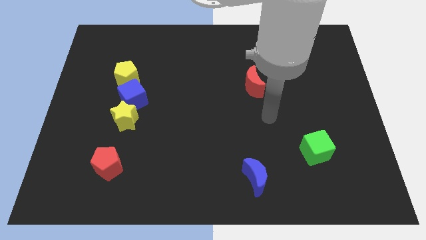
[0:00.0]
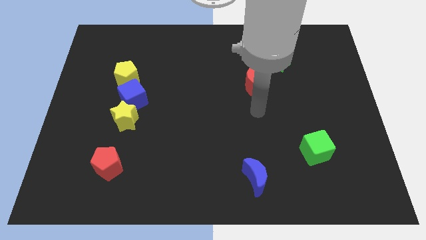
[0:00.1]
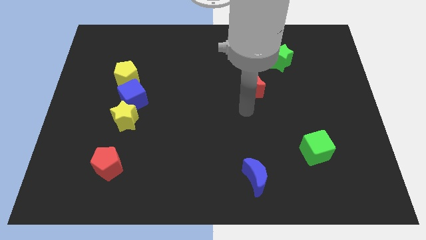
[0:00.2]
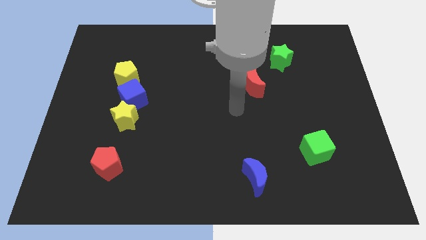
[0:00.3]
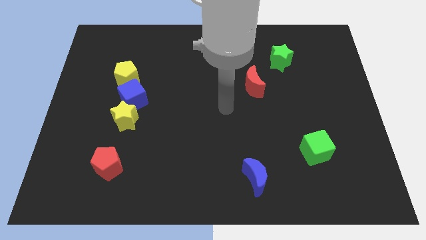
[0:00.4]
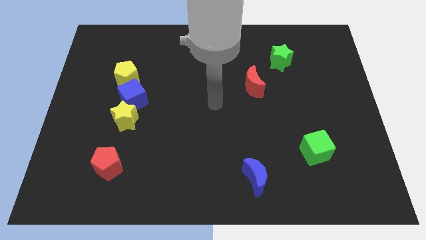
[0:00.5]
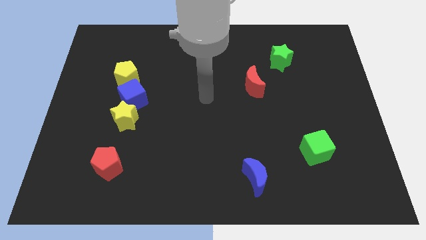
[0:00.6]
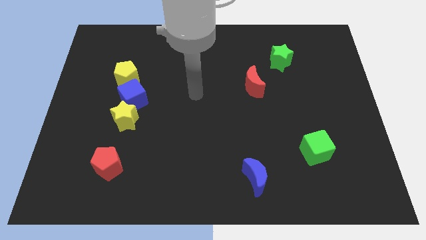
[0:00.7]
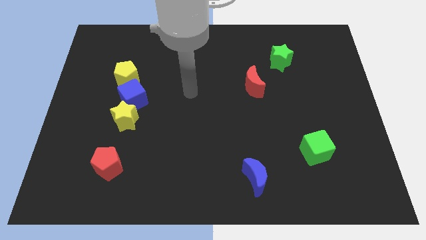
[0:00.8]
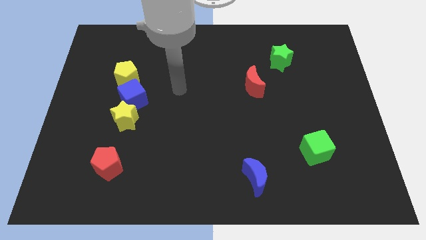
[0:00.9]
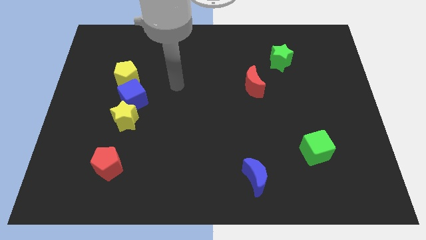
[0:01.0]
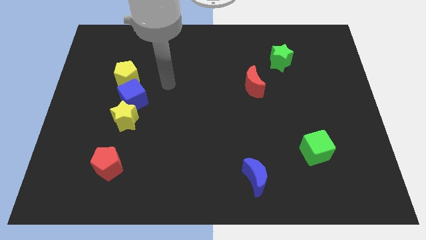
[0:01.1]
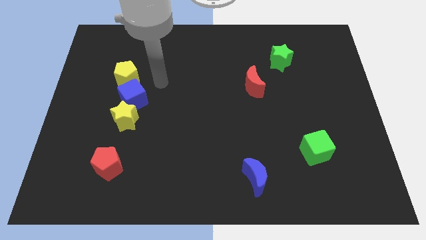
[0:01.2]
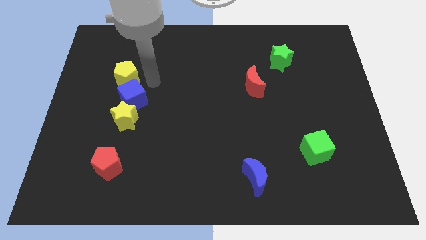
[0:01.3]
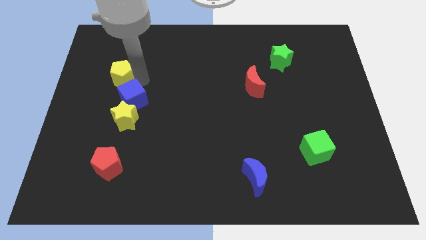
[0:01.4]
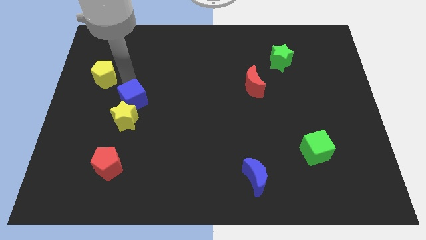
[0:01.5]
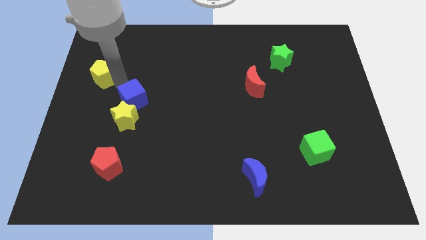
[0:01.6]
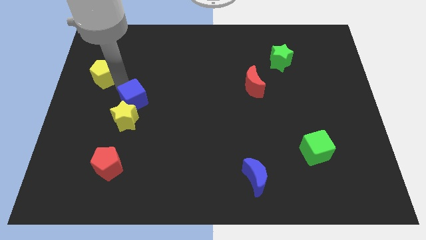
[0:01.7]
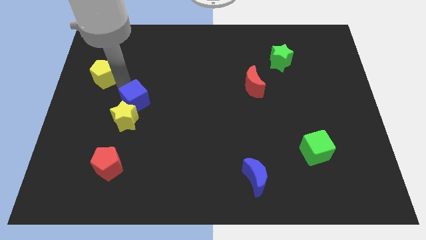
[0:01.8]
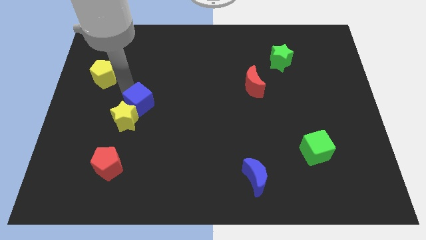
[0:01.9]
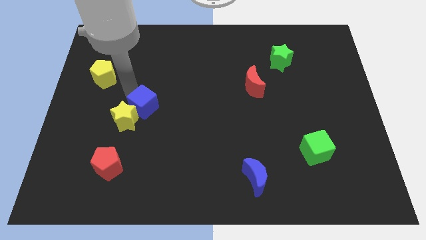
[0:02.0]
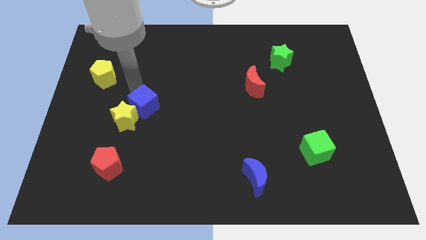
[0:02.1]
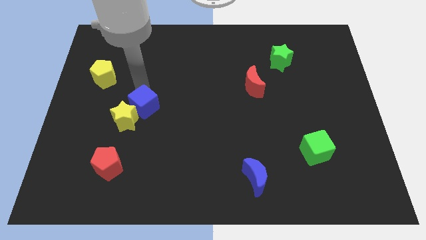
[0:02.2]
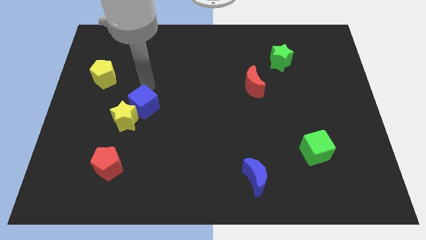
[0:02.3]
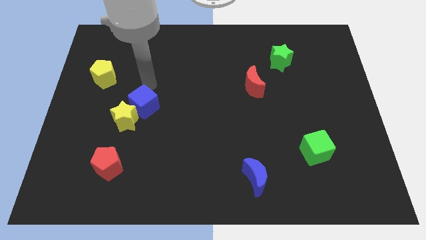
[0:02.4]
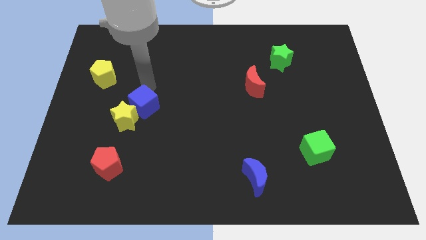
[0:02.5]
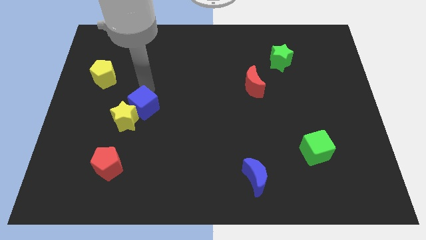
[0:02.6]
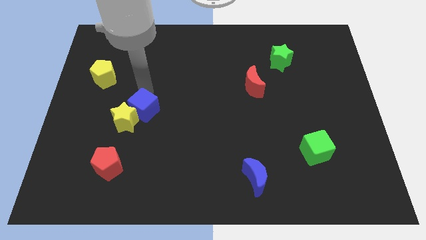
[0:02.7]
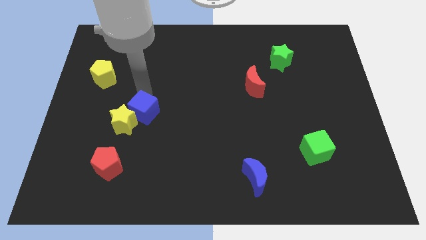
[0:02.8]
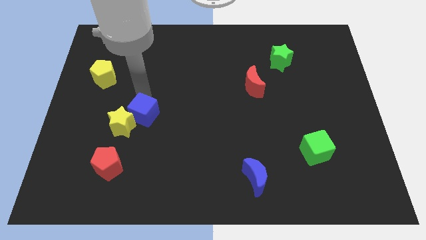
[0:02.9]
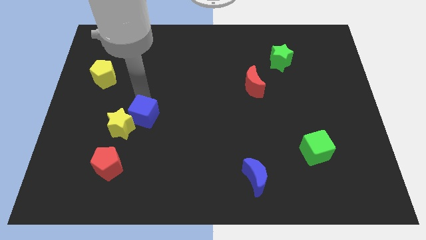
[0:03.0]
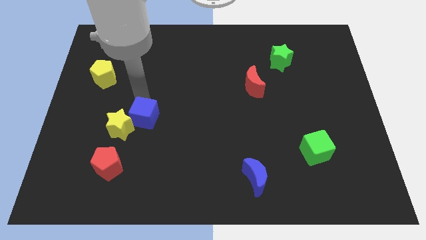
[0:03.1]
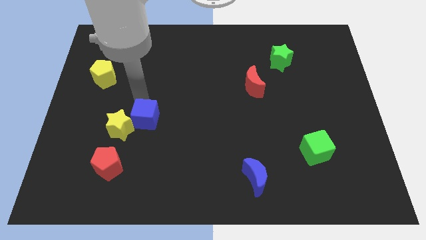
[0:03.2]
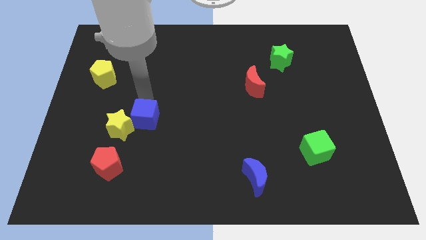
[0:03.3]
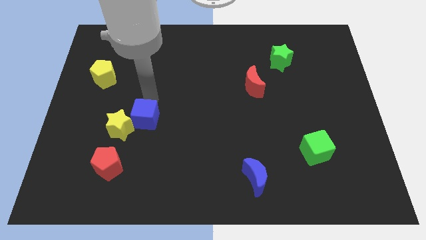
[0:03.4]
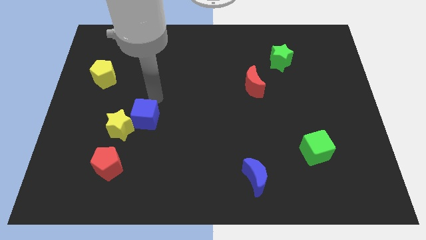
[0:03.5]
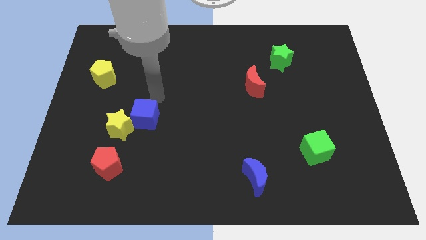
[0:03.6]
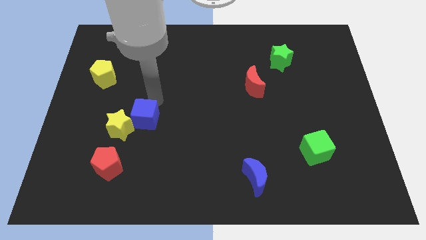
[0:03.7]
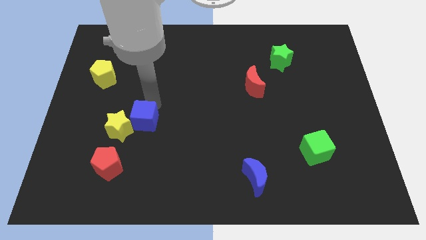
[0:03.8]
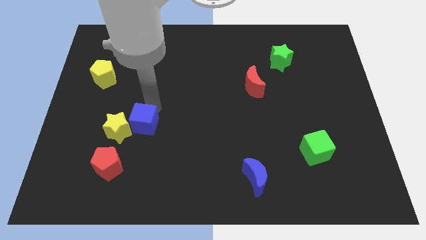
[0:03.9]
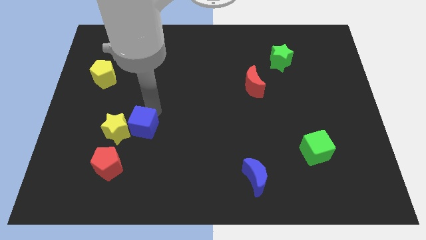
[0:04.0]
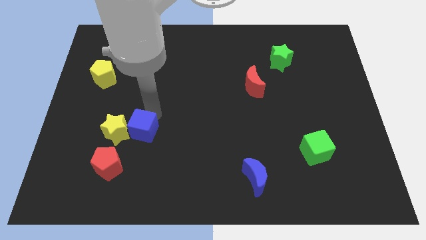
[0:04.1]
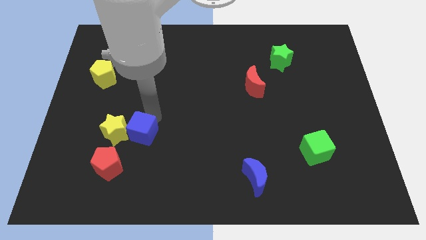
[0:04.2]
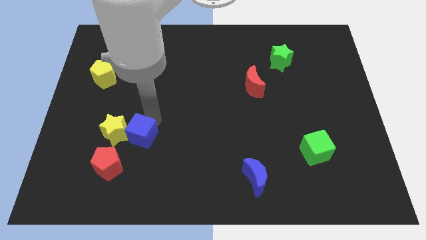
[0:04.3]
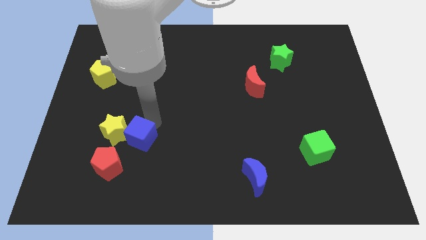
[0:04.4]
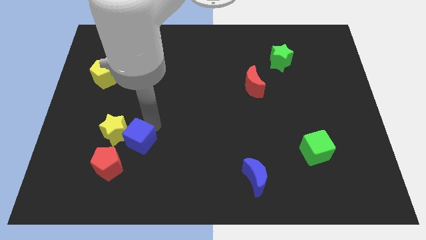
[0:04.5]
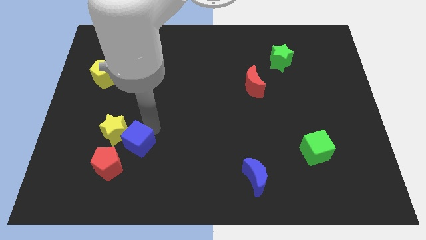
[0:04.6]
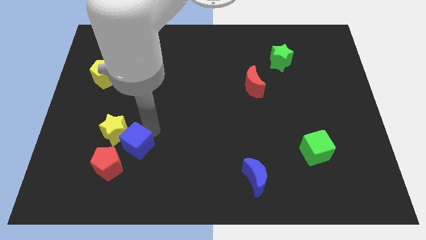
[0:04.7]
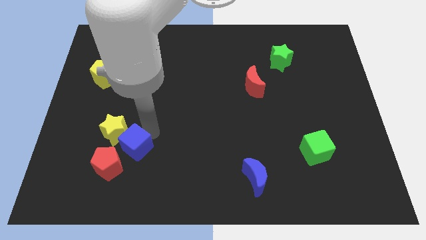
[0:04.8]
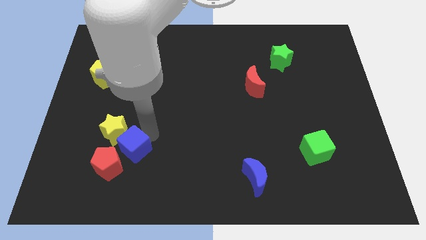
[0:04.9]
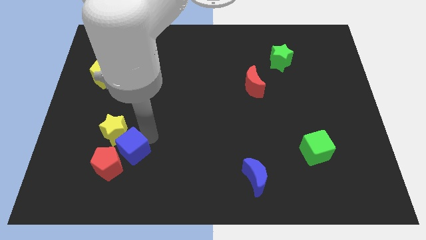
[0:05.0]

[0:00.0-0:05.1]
move the blue cube next to the red pentagon

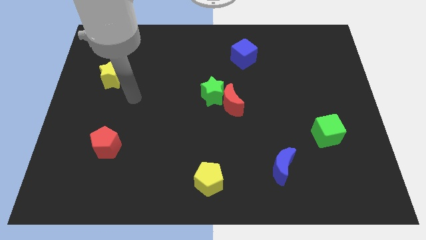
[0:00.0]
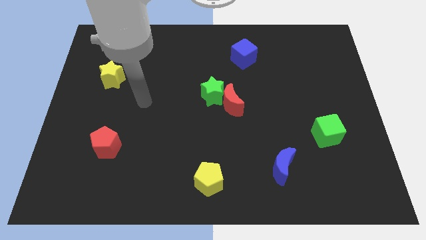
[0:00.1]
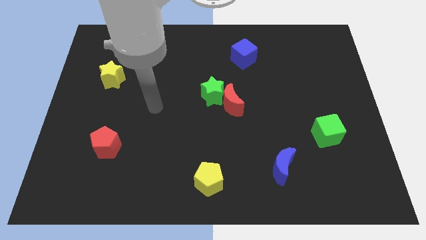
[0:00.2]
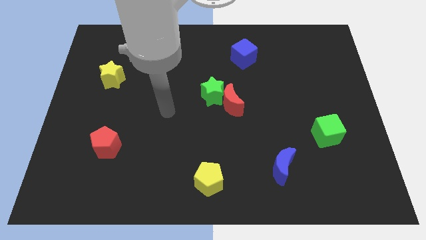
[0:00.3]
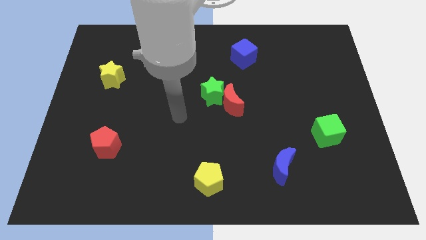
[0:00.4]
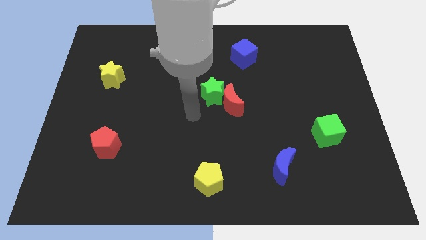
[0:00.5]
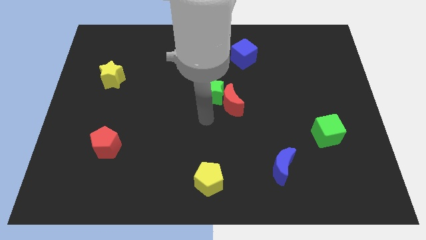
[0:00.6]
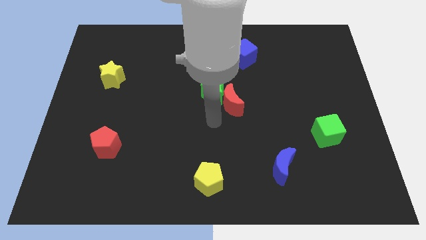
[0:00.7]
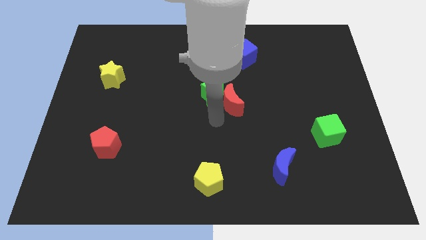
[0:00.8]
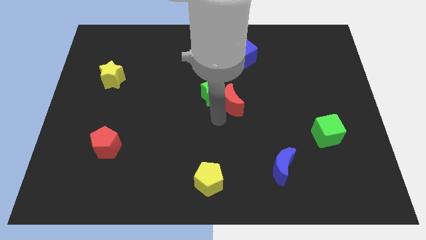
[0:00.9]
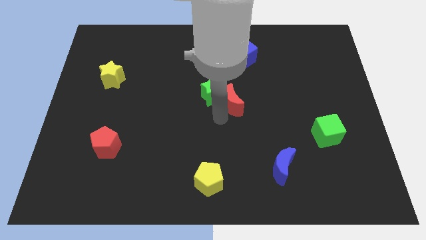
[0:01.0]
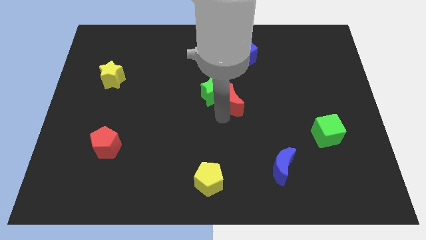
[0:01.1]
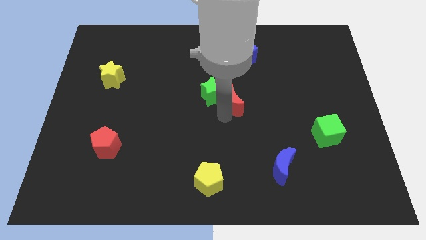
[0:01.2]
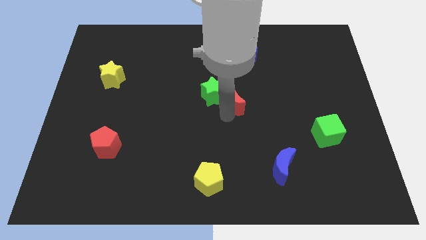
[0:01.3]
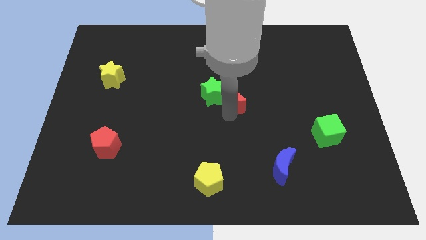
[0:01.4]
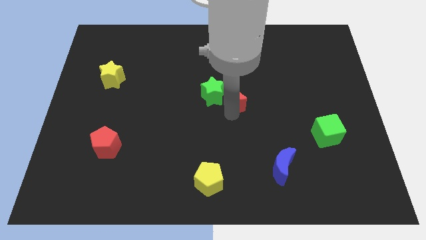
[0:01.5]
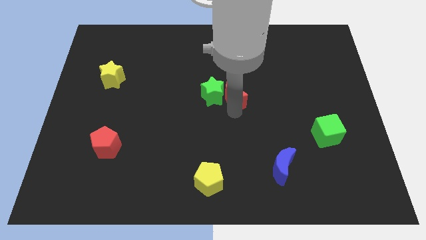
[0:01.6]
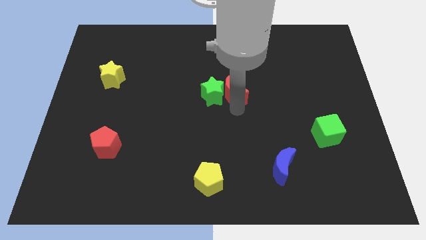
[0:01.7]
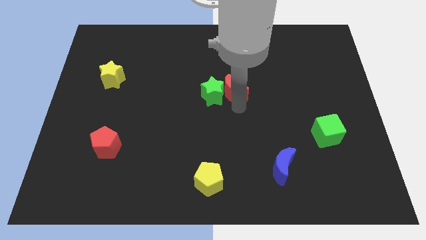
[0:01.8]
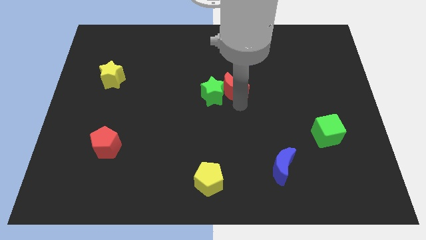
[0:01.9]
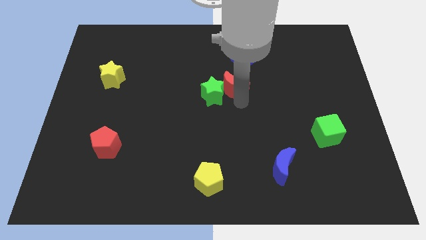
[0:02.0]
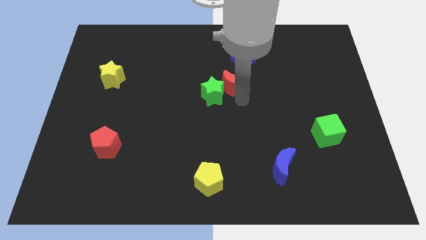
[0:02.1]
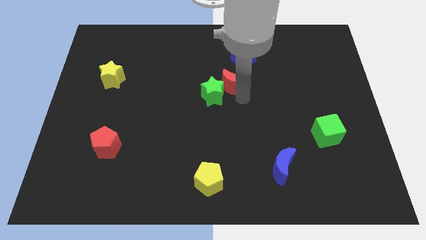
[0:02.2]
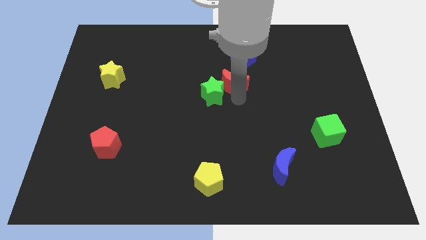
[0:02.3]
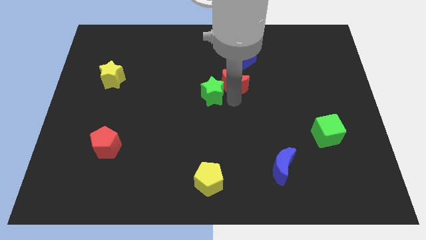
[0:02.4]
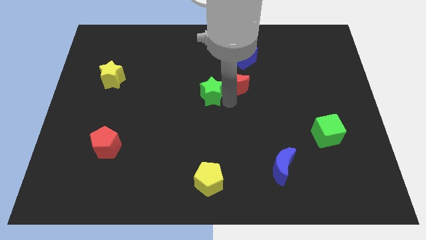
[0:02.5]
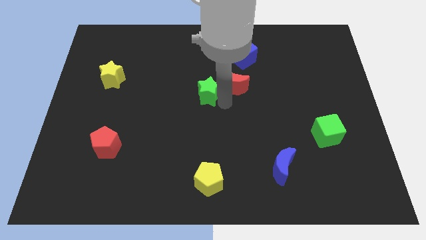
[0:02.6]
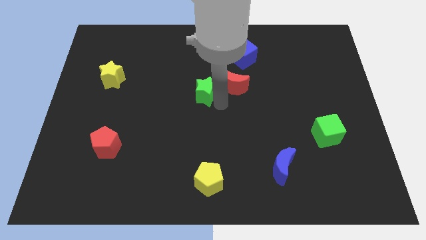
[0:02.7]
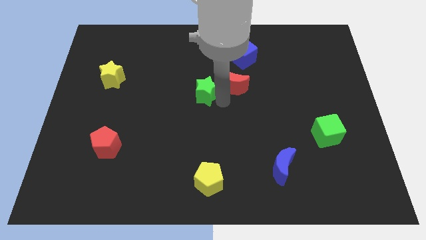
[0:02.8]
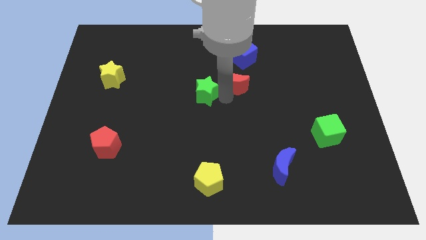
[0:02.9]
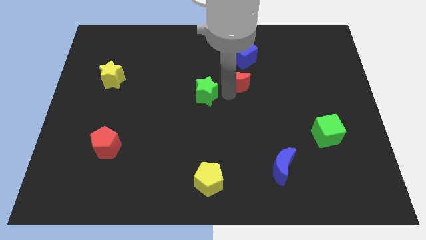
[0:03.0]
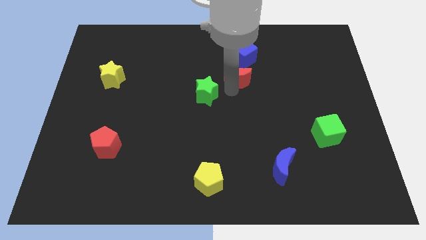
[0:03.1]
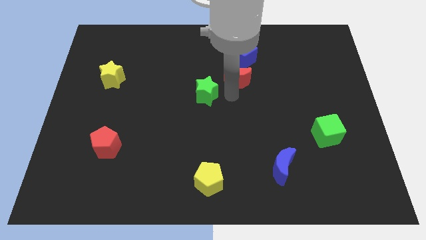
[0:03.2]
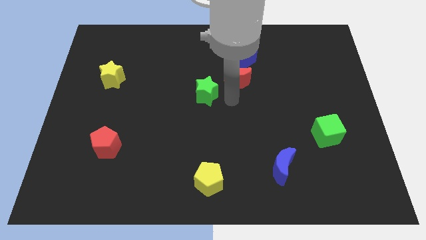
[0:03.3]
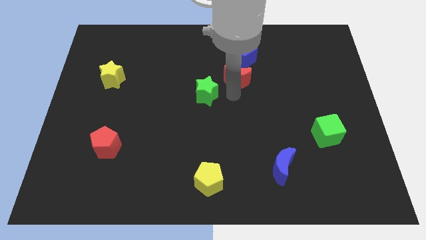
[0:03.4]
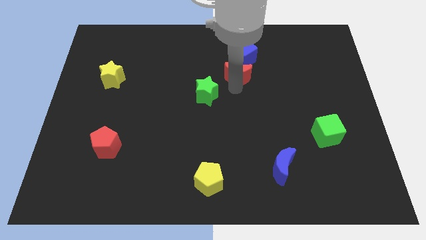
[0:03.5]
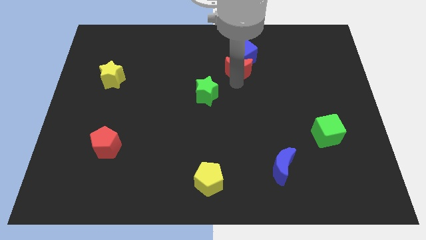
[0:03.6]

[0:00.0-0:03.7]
put the red moon towards the blue cube
